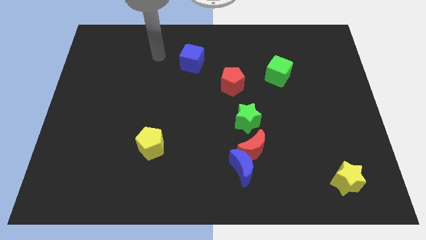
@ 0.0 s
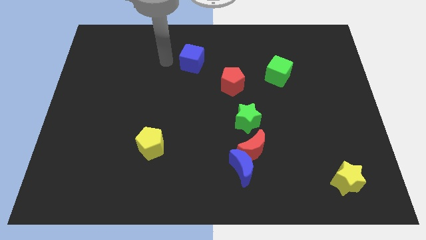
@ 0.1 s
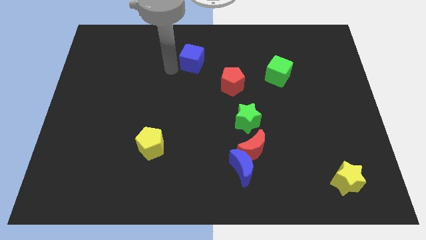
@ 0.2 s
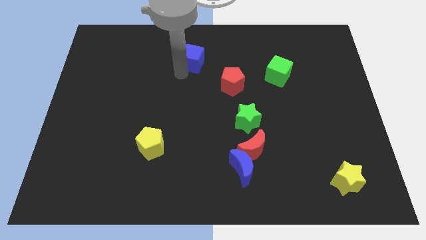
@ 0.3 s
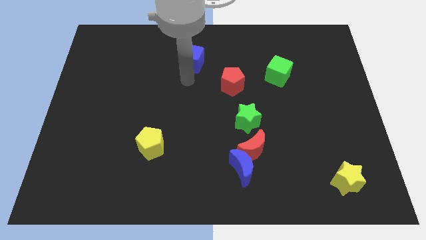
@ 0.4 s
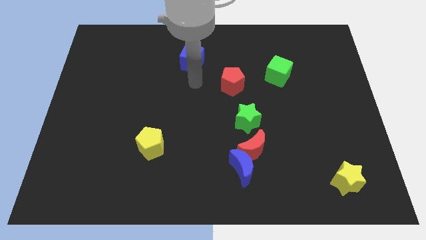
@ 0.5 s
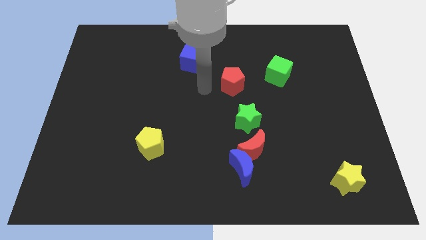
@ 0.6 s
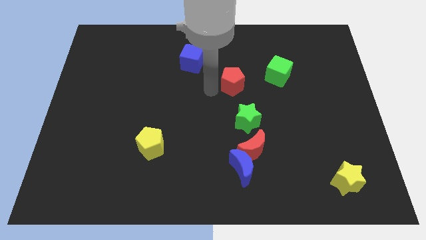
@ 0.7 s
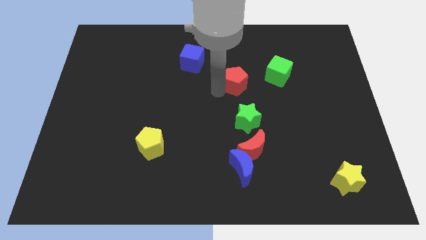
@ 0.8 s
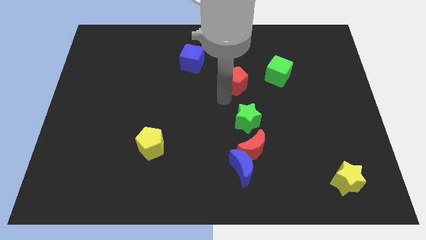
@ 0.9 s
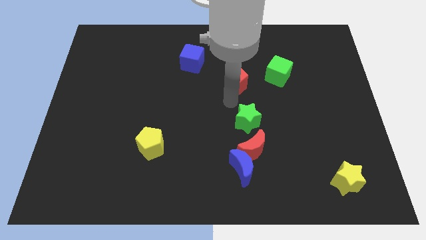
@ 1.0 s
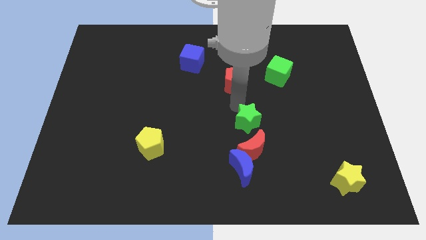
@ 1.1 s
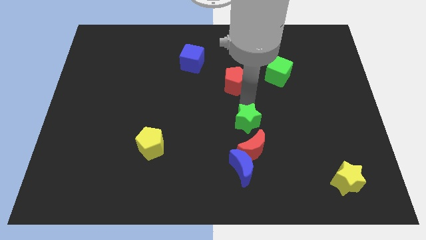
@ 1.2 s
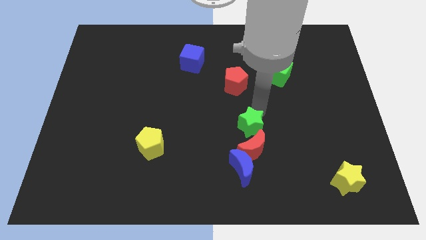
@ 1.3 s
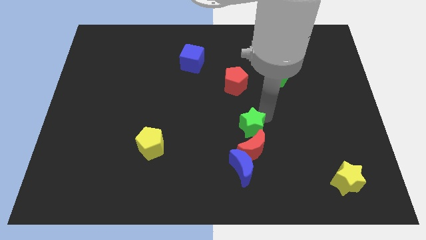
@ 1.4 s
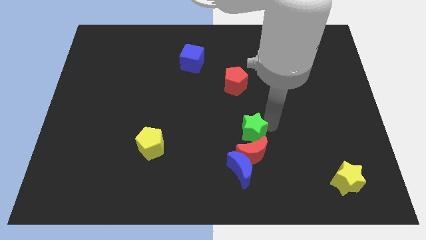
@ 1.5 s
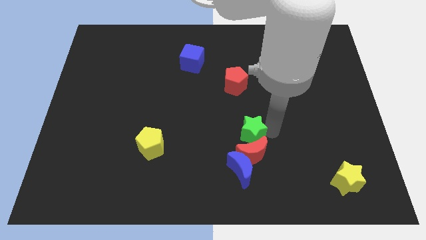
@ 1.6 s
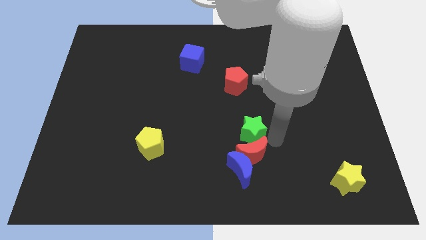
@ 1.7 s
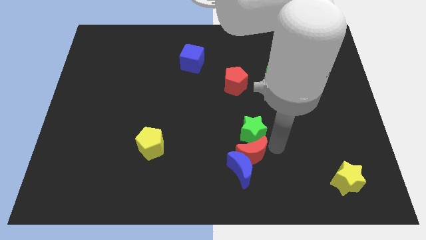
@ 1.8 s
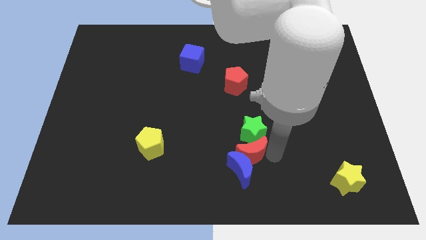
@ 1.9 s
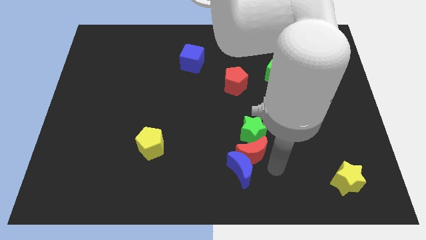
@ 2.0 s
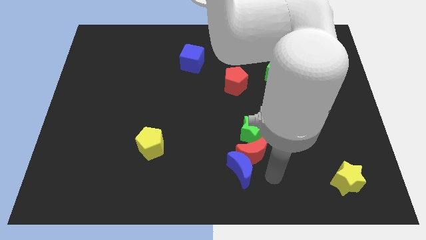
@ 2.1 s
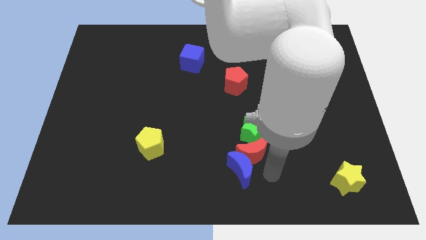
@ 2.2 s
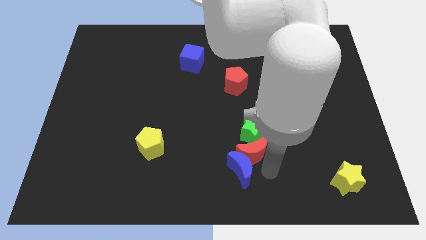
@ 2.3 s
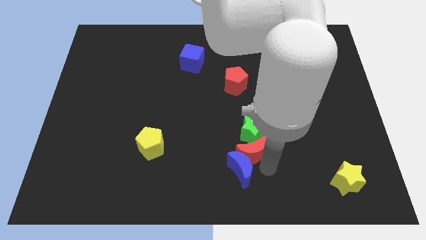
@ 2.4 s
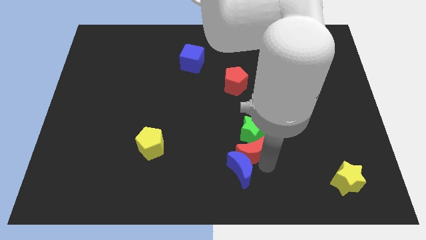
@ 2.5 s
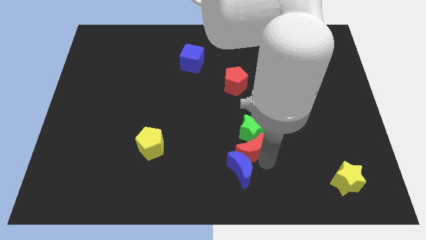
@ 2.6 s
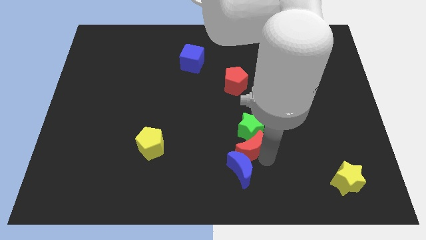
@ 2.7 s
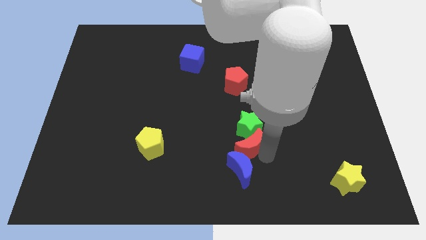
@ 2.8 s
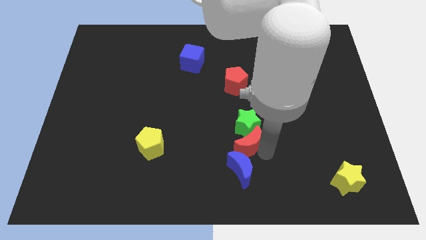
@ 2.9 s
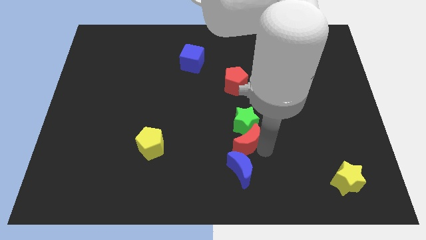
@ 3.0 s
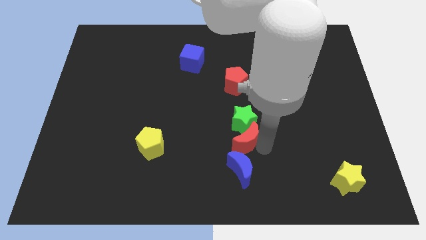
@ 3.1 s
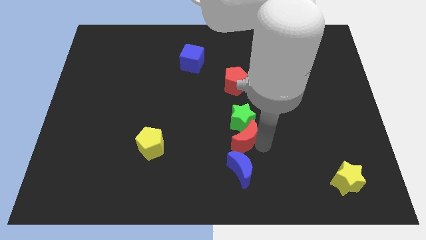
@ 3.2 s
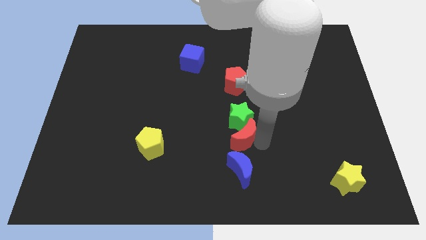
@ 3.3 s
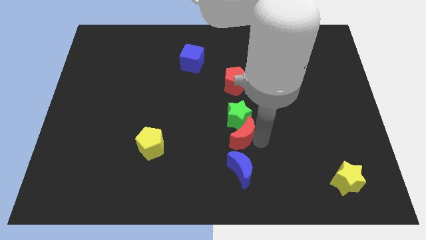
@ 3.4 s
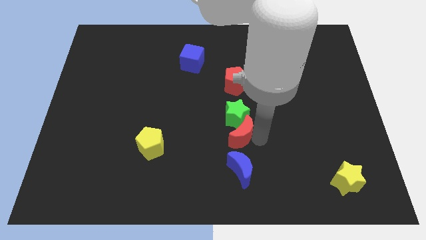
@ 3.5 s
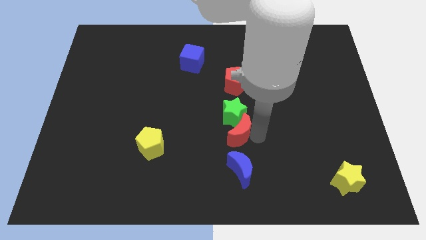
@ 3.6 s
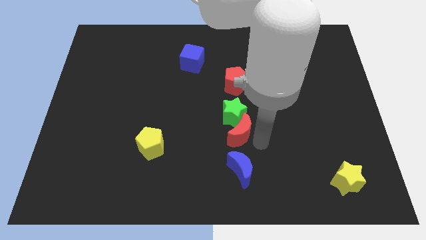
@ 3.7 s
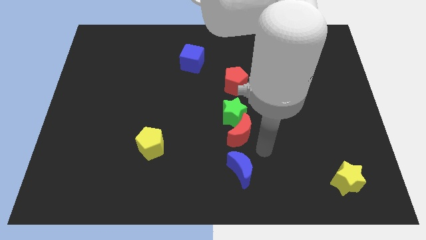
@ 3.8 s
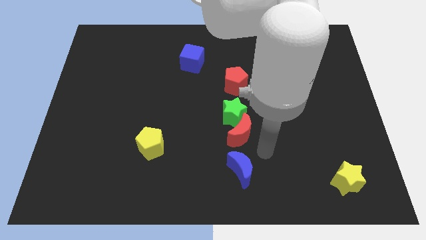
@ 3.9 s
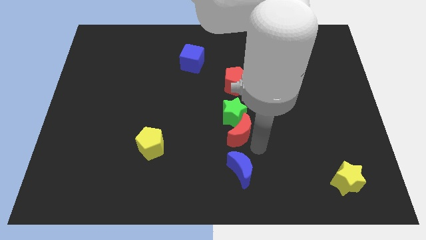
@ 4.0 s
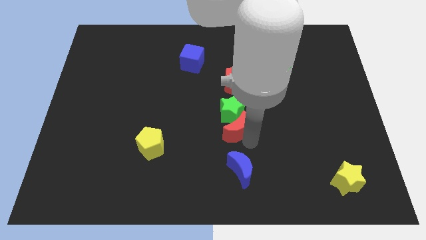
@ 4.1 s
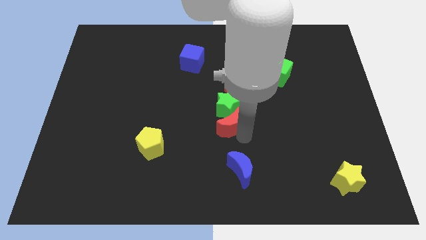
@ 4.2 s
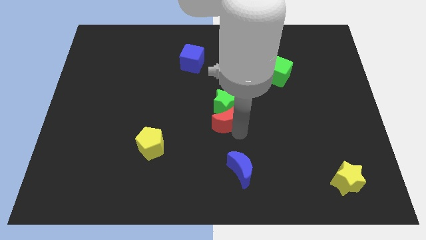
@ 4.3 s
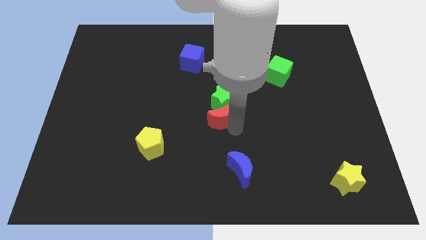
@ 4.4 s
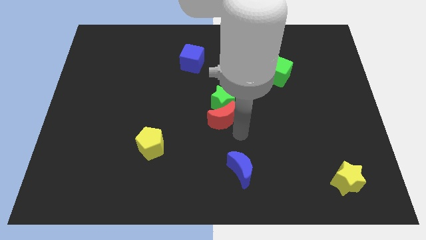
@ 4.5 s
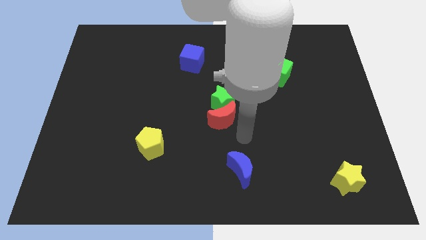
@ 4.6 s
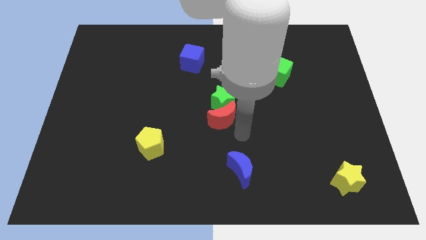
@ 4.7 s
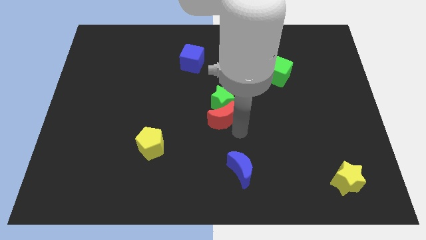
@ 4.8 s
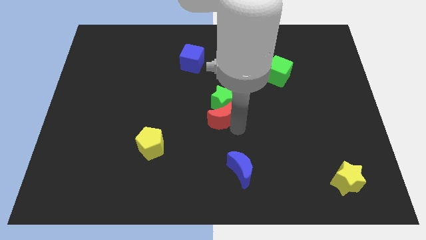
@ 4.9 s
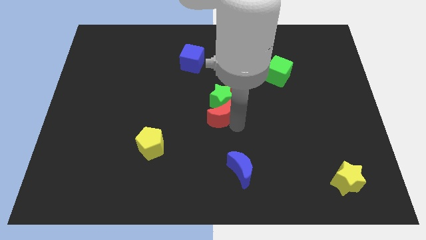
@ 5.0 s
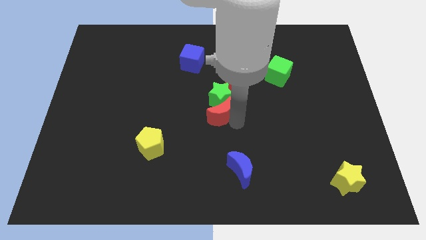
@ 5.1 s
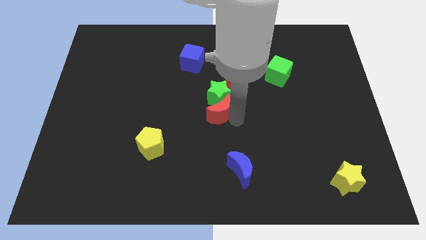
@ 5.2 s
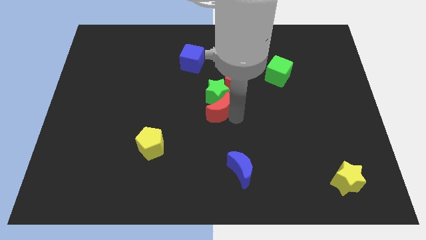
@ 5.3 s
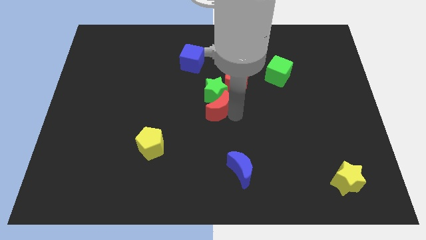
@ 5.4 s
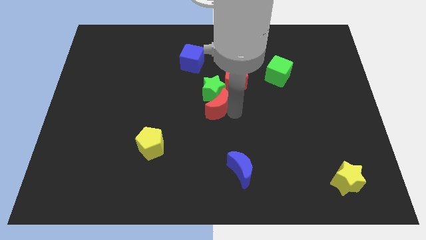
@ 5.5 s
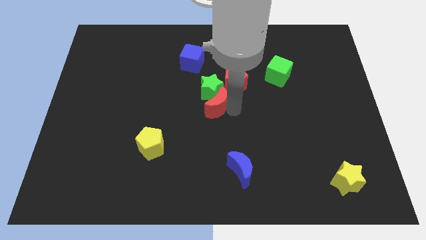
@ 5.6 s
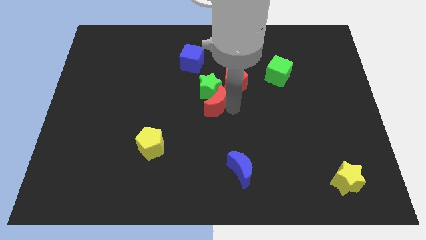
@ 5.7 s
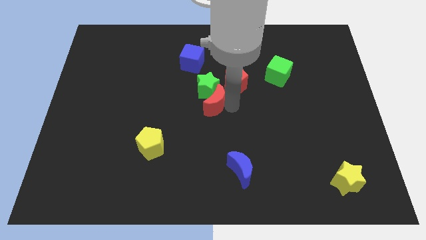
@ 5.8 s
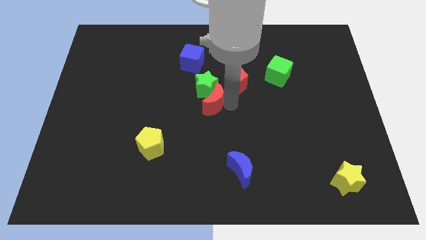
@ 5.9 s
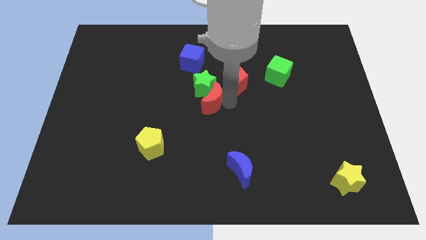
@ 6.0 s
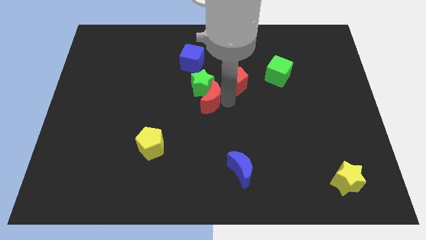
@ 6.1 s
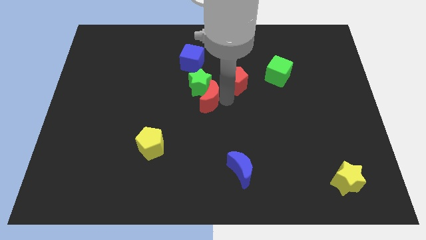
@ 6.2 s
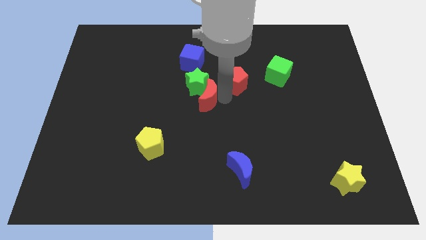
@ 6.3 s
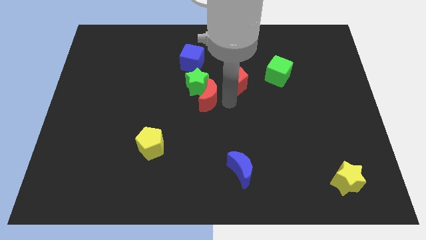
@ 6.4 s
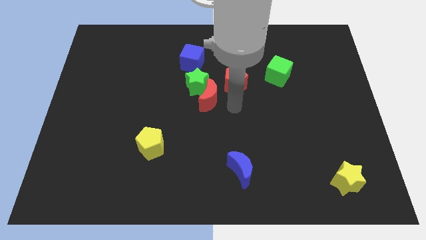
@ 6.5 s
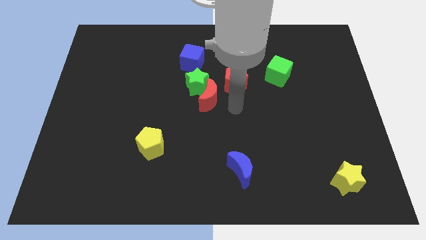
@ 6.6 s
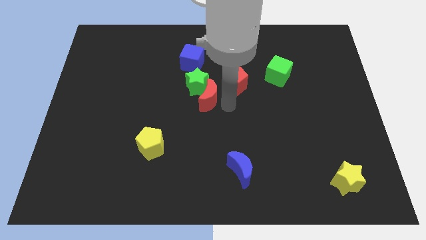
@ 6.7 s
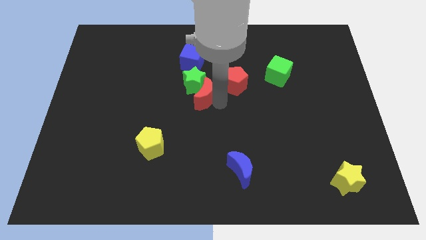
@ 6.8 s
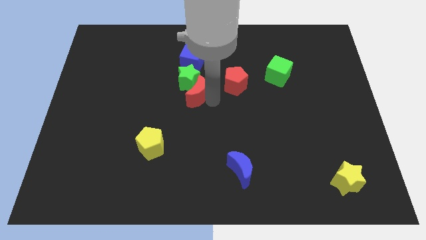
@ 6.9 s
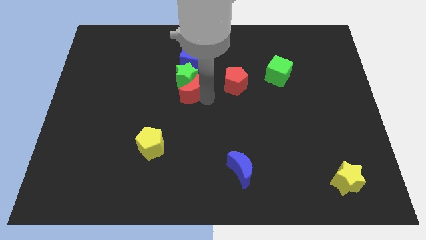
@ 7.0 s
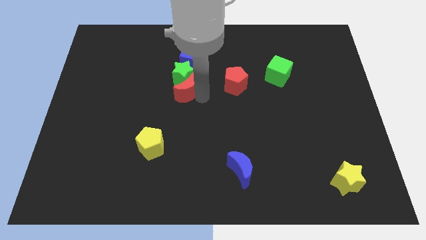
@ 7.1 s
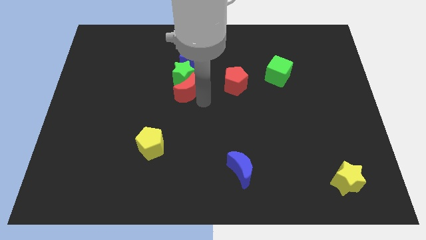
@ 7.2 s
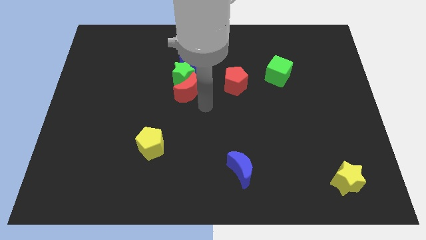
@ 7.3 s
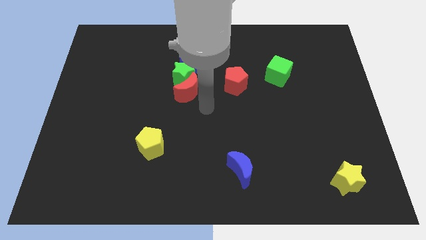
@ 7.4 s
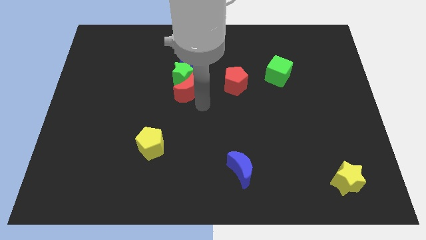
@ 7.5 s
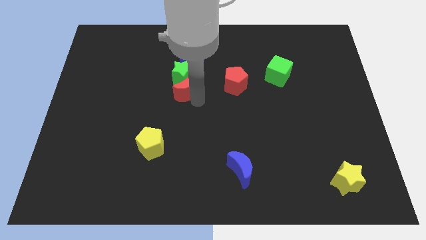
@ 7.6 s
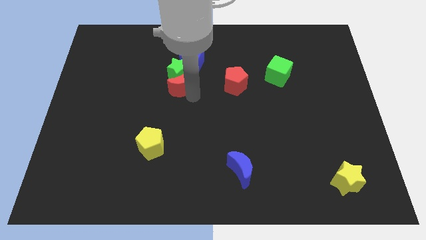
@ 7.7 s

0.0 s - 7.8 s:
slide the red moon to the bottom left of the blue cube

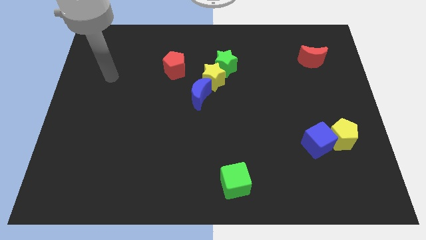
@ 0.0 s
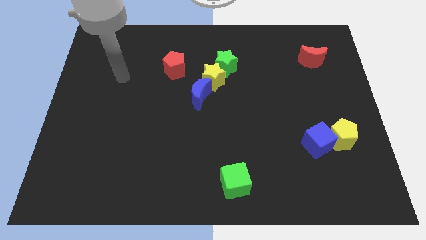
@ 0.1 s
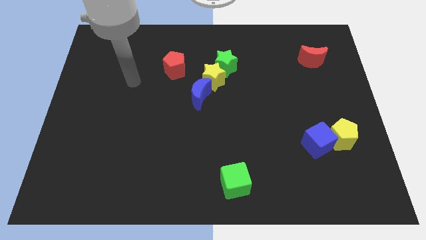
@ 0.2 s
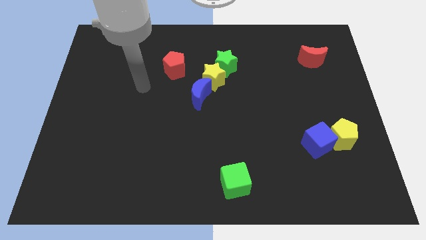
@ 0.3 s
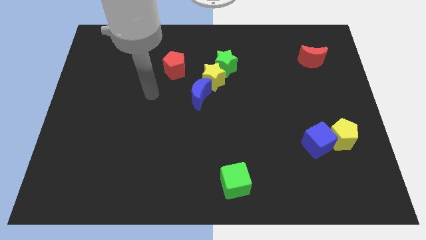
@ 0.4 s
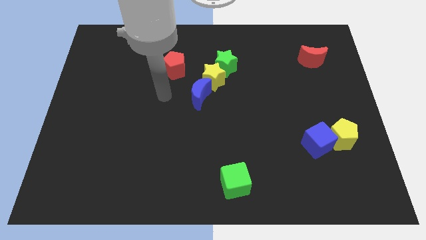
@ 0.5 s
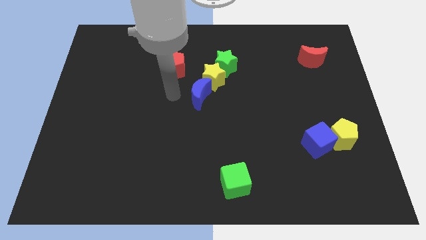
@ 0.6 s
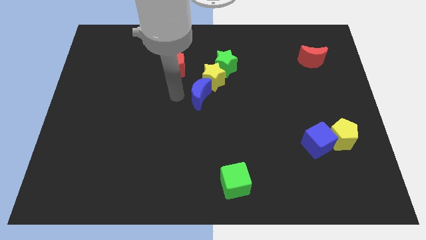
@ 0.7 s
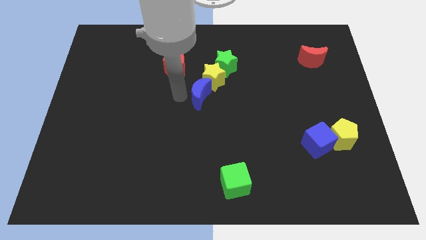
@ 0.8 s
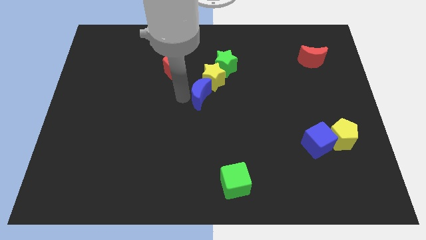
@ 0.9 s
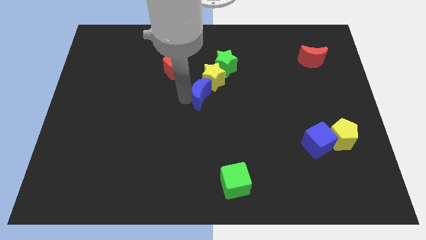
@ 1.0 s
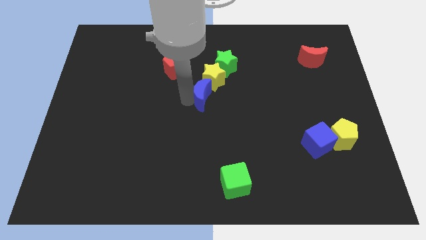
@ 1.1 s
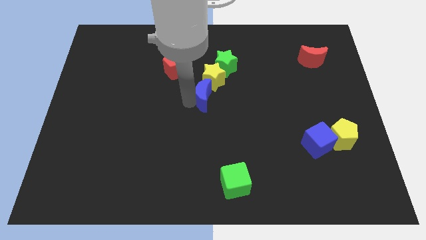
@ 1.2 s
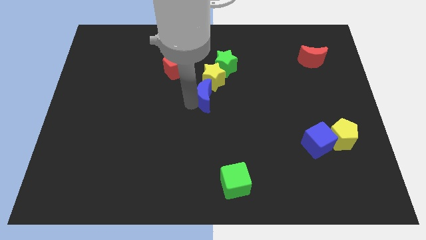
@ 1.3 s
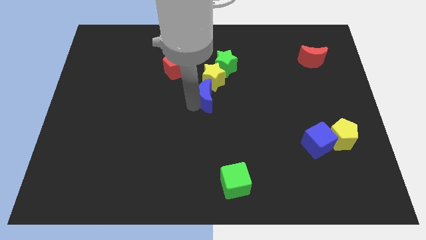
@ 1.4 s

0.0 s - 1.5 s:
slide the blue moon below the green star
